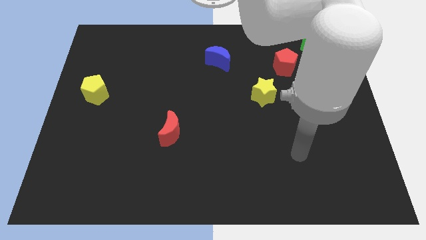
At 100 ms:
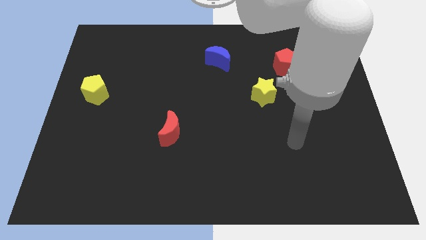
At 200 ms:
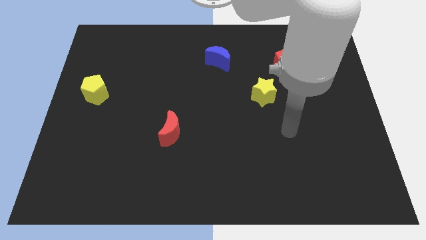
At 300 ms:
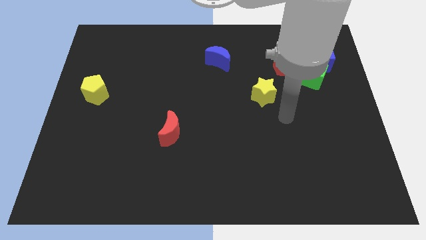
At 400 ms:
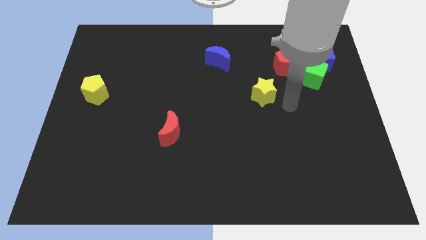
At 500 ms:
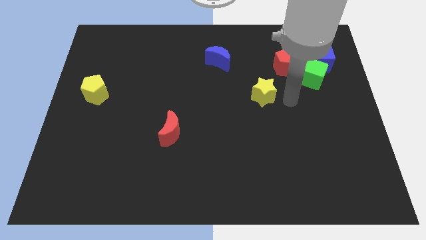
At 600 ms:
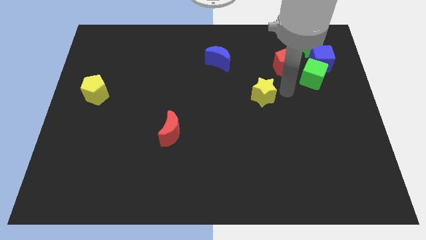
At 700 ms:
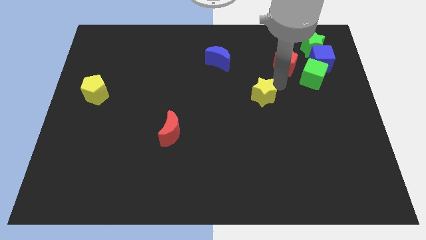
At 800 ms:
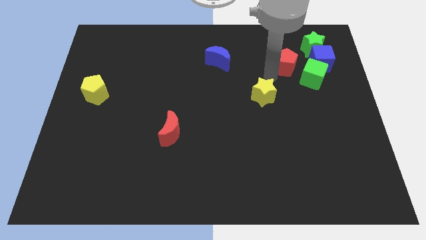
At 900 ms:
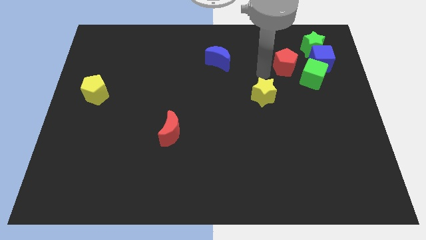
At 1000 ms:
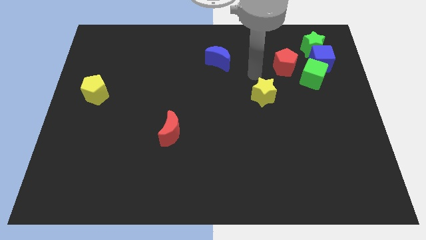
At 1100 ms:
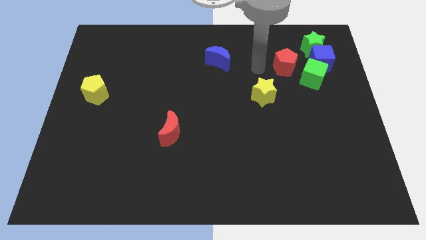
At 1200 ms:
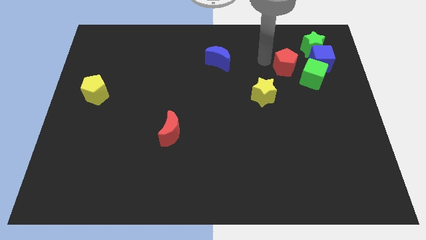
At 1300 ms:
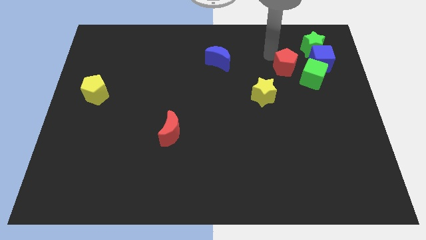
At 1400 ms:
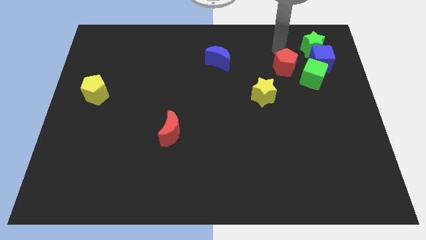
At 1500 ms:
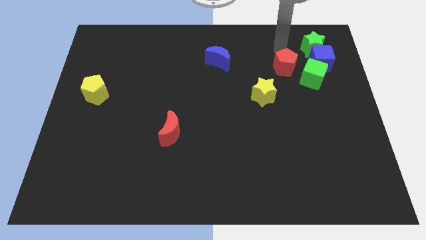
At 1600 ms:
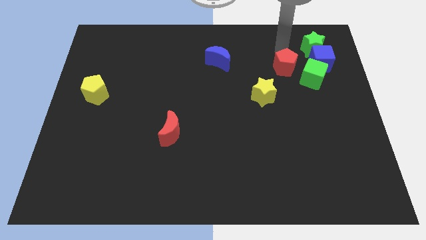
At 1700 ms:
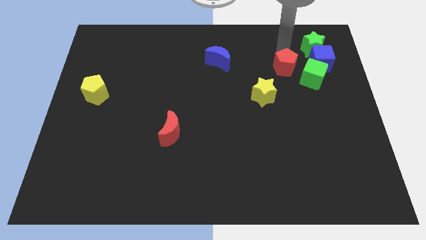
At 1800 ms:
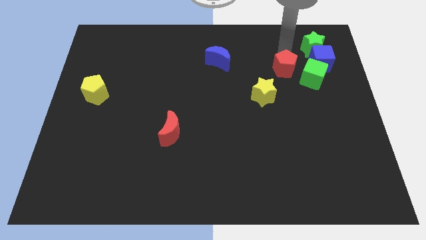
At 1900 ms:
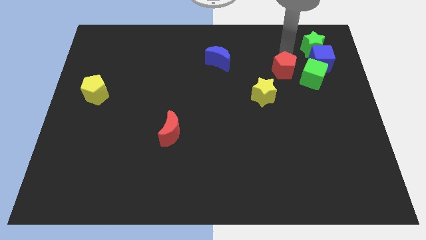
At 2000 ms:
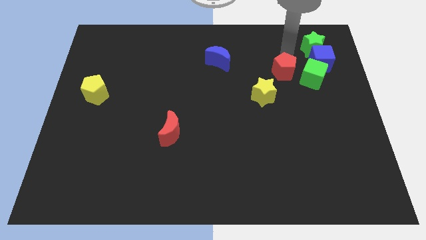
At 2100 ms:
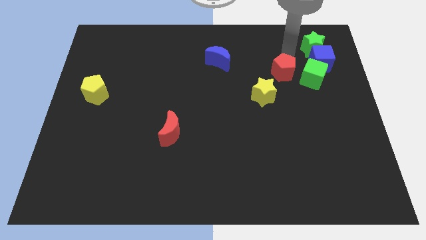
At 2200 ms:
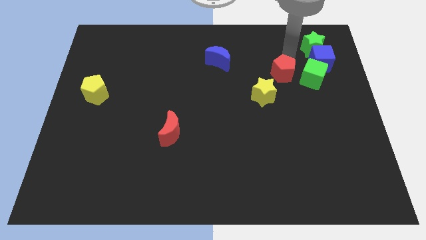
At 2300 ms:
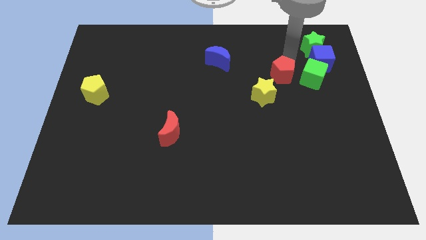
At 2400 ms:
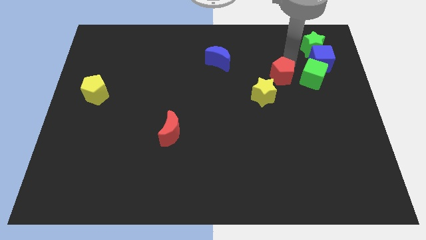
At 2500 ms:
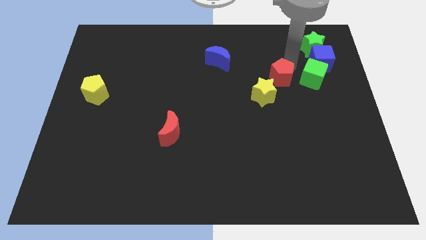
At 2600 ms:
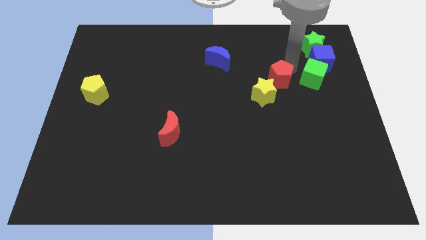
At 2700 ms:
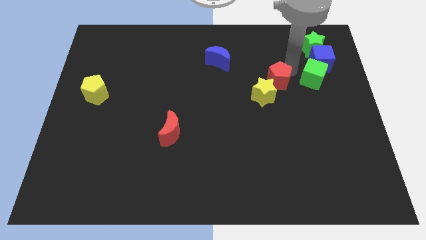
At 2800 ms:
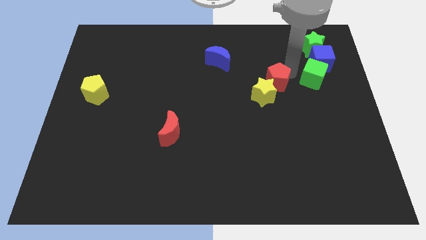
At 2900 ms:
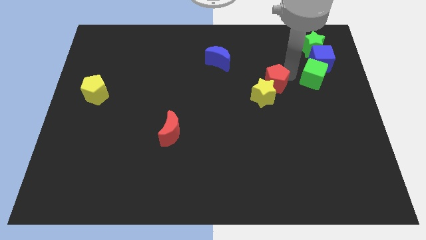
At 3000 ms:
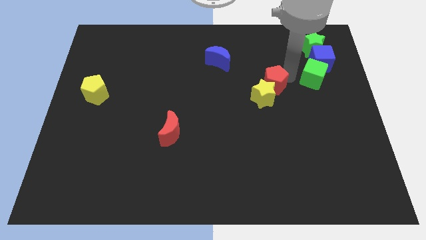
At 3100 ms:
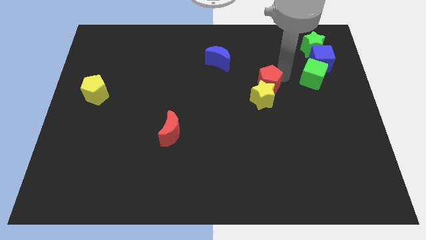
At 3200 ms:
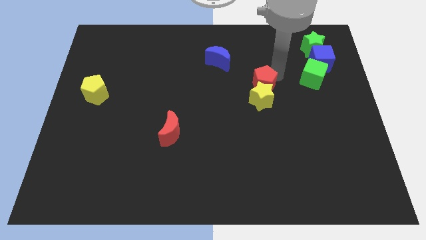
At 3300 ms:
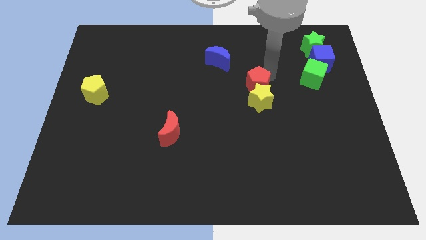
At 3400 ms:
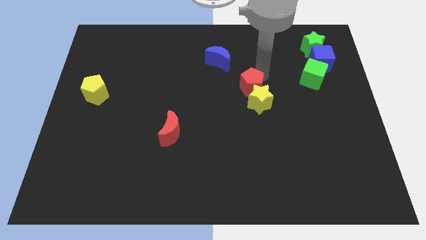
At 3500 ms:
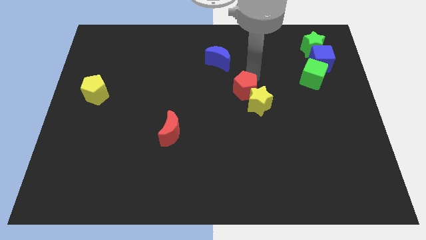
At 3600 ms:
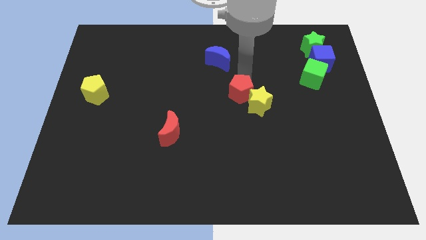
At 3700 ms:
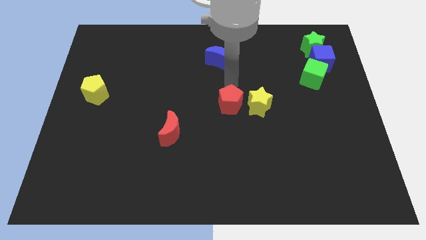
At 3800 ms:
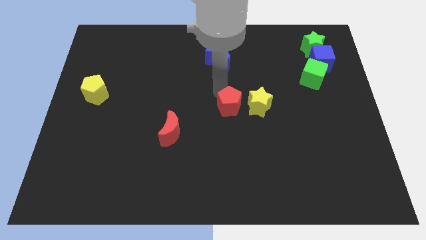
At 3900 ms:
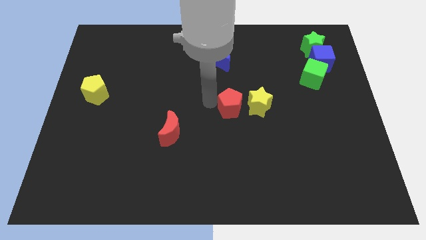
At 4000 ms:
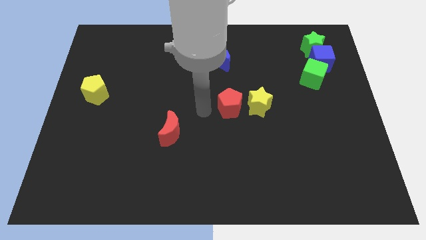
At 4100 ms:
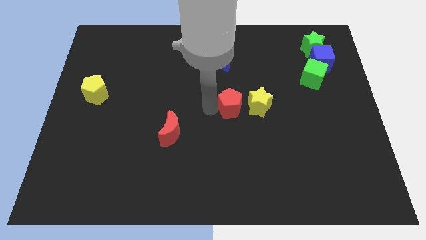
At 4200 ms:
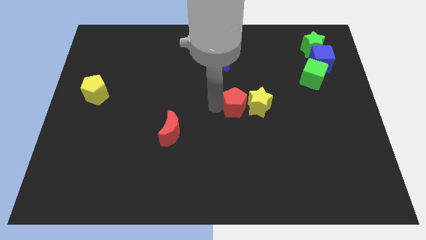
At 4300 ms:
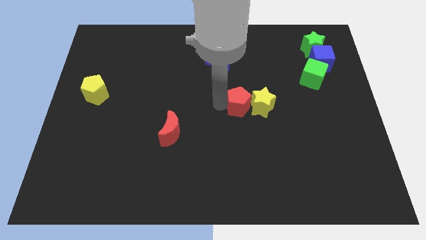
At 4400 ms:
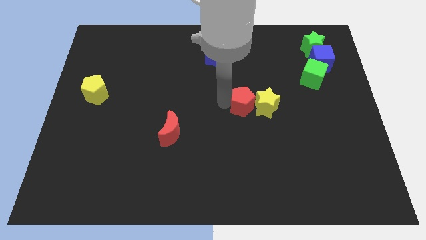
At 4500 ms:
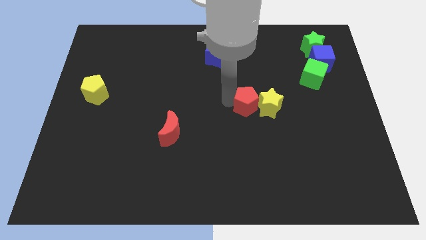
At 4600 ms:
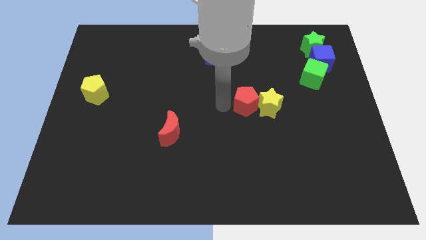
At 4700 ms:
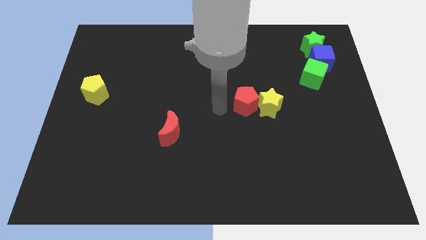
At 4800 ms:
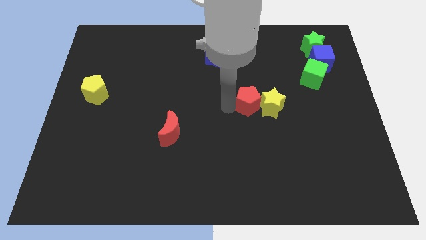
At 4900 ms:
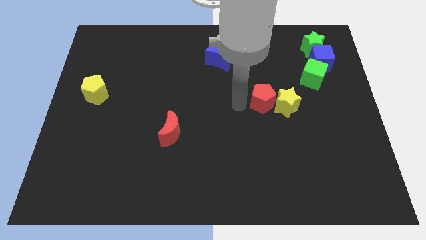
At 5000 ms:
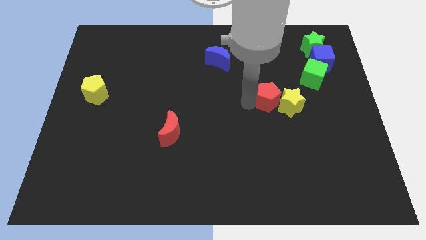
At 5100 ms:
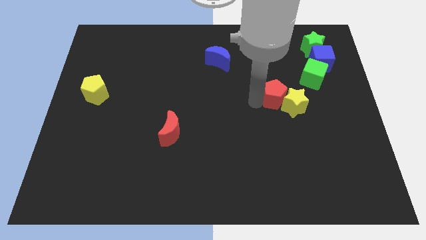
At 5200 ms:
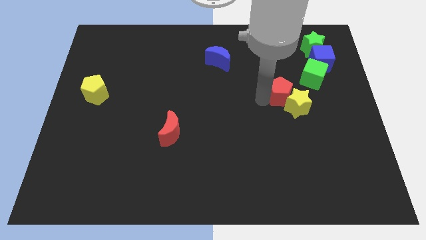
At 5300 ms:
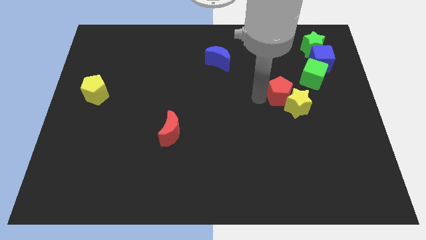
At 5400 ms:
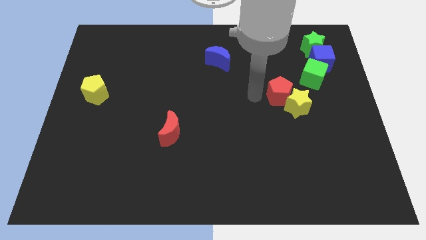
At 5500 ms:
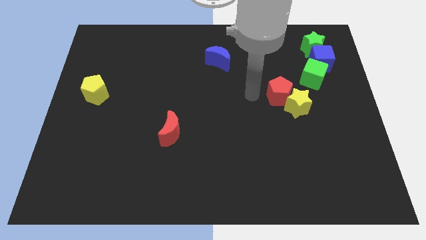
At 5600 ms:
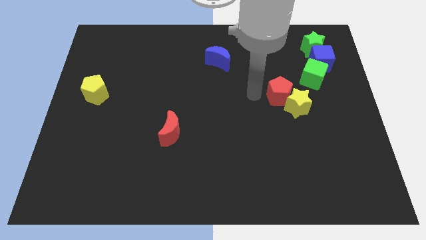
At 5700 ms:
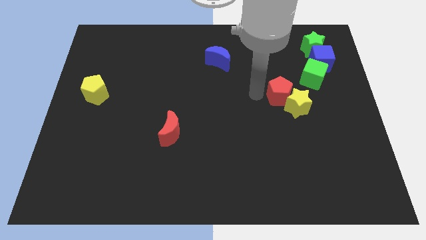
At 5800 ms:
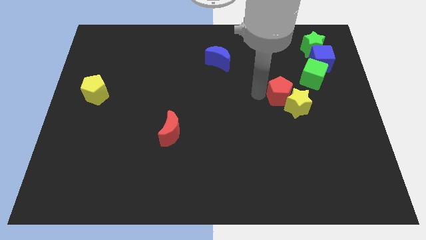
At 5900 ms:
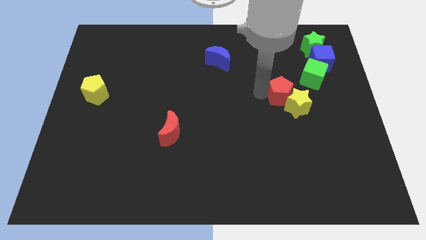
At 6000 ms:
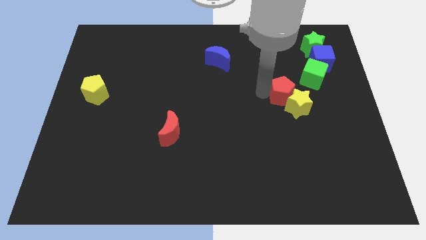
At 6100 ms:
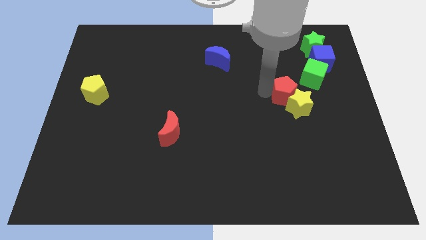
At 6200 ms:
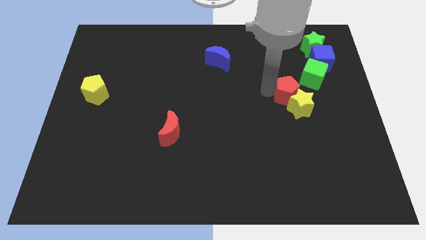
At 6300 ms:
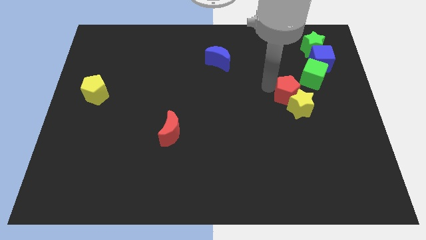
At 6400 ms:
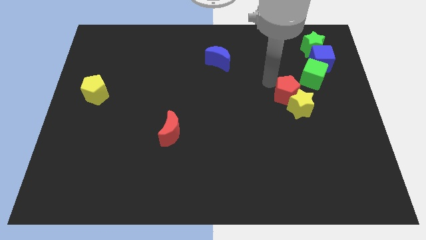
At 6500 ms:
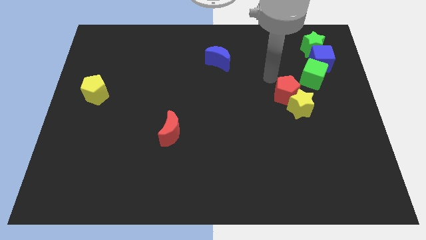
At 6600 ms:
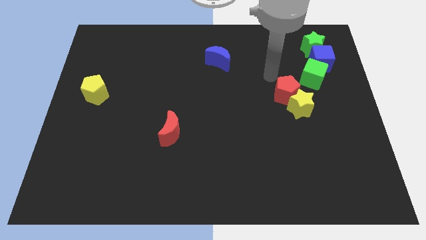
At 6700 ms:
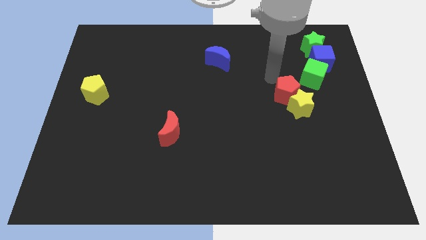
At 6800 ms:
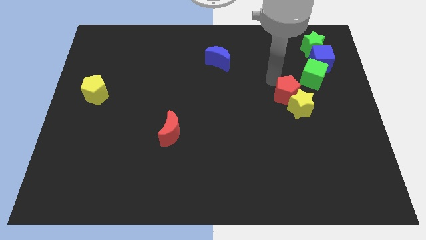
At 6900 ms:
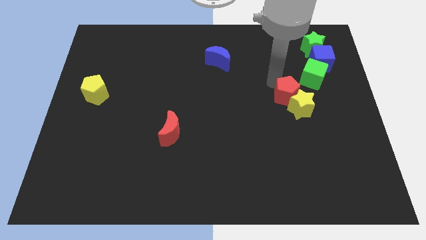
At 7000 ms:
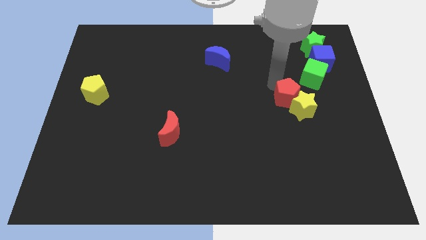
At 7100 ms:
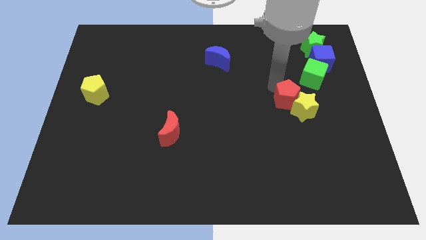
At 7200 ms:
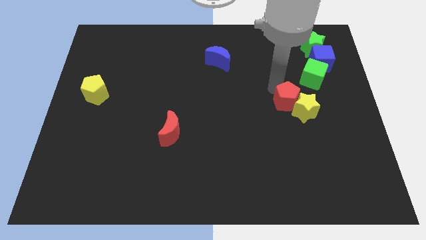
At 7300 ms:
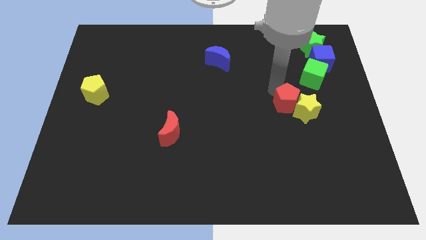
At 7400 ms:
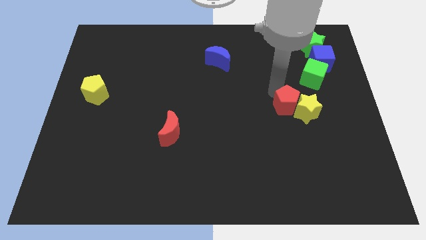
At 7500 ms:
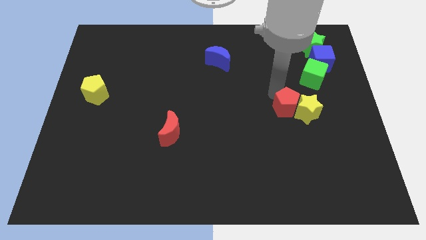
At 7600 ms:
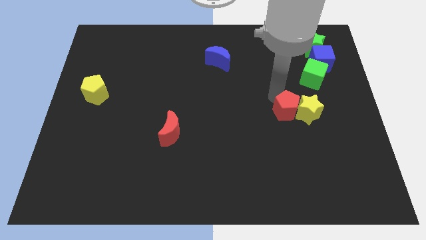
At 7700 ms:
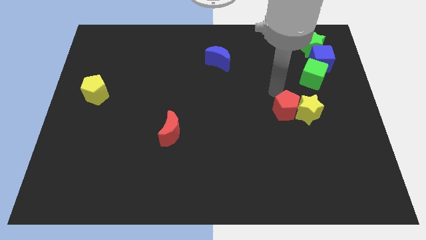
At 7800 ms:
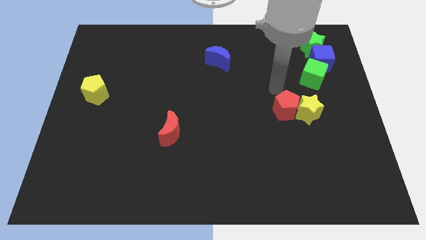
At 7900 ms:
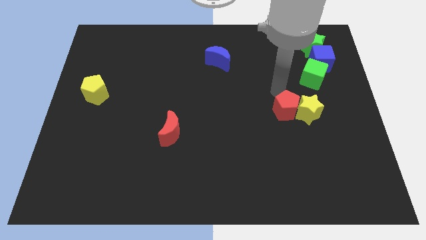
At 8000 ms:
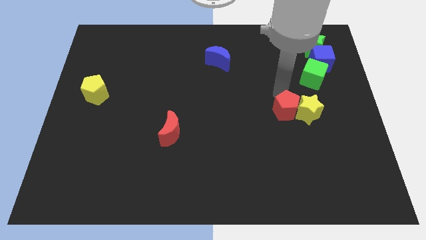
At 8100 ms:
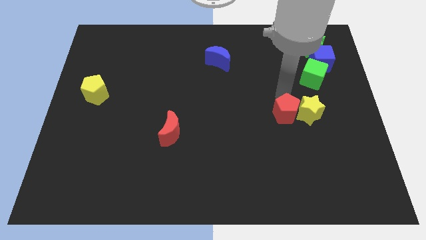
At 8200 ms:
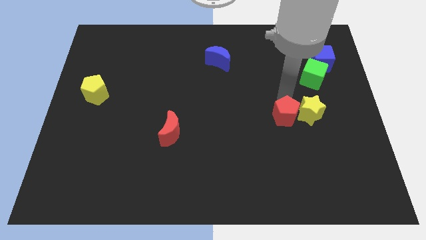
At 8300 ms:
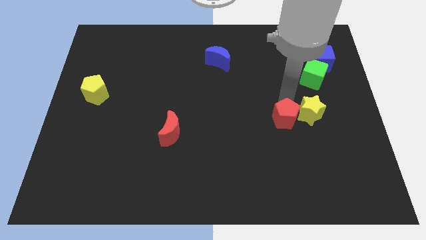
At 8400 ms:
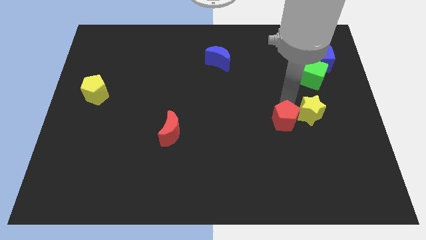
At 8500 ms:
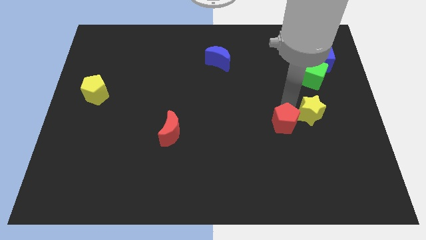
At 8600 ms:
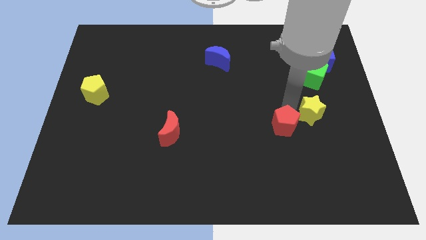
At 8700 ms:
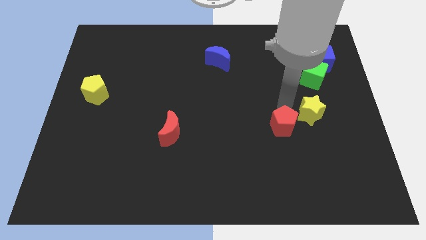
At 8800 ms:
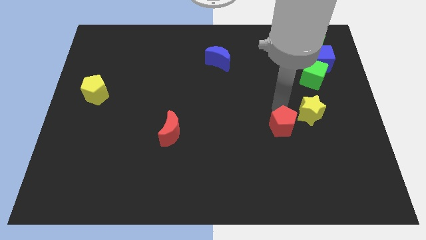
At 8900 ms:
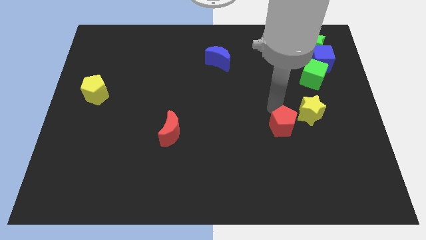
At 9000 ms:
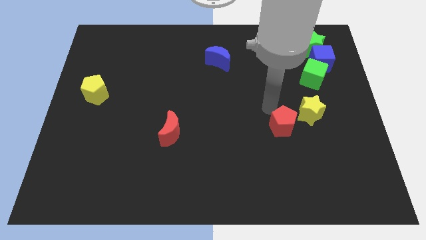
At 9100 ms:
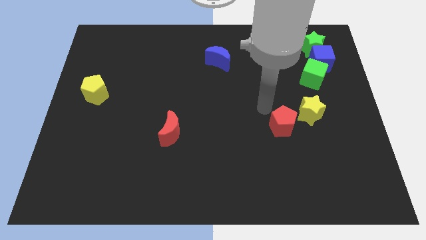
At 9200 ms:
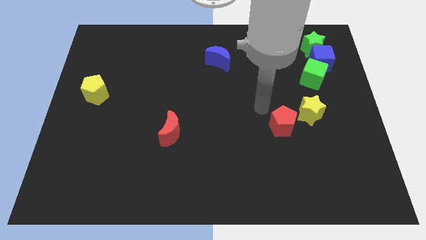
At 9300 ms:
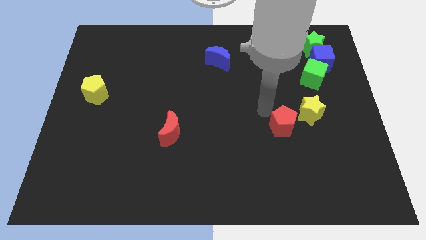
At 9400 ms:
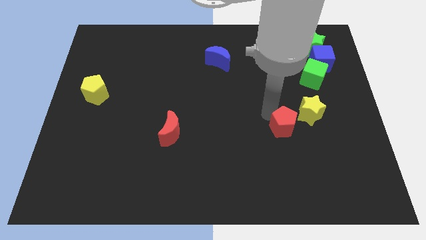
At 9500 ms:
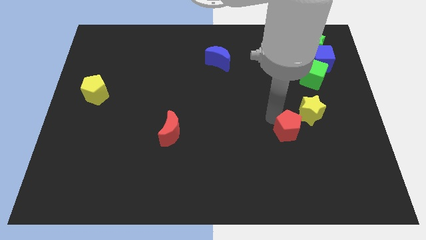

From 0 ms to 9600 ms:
push the red pentagon down
